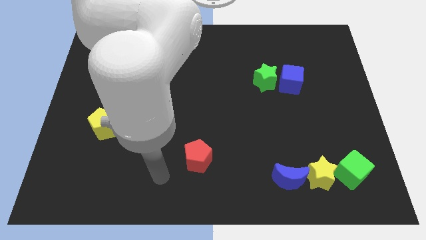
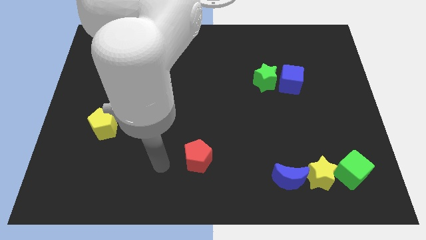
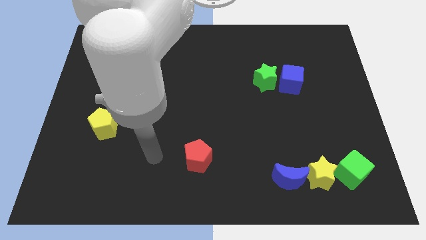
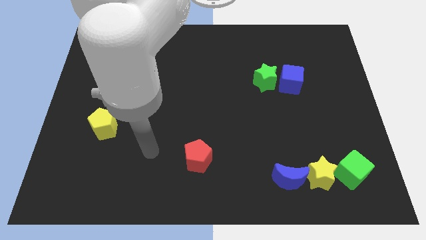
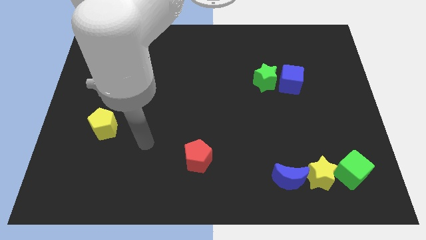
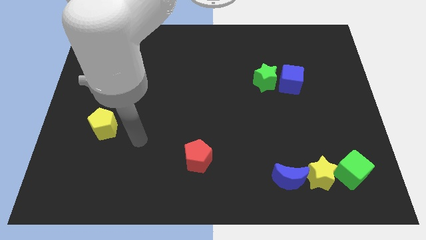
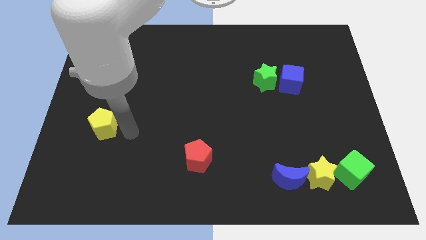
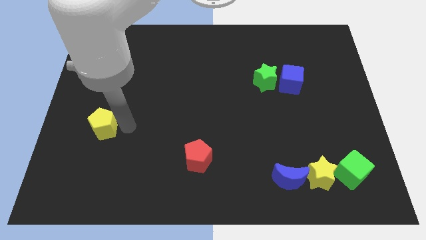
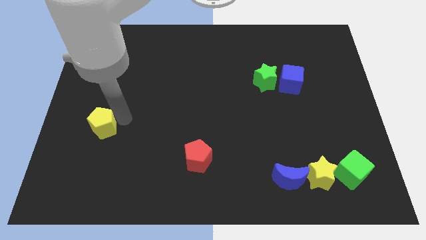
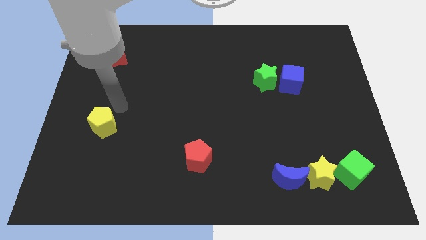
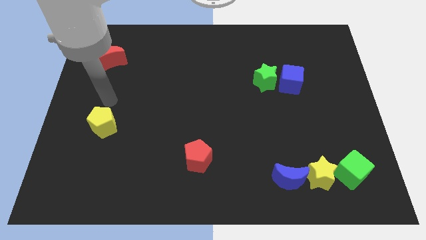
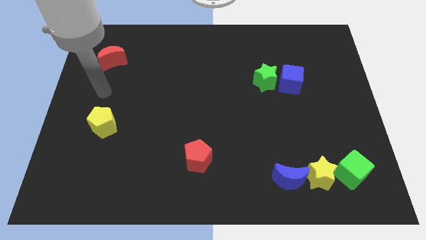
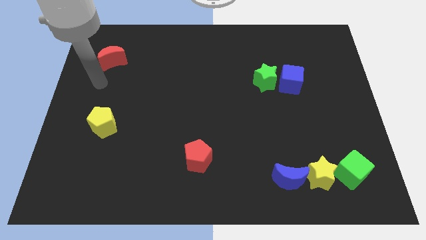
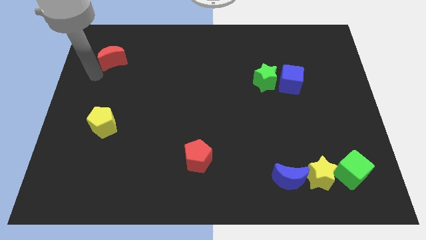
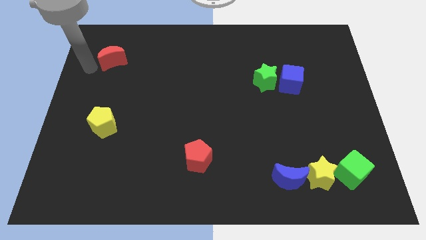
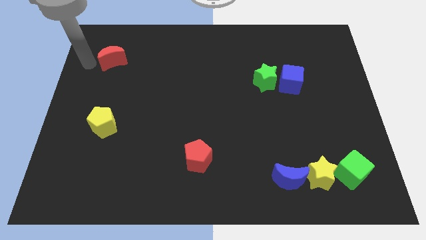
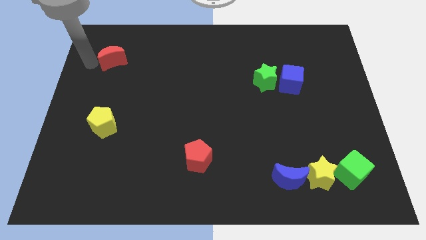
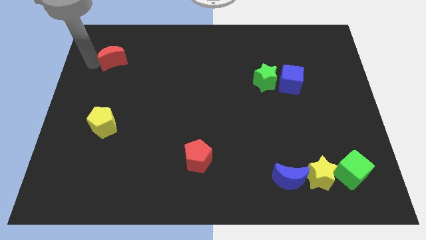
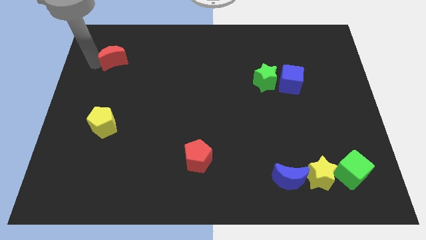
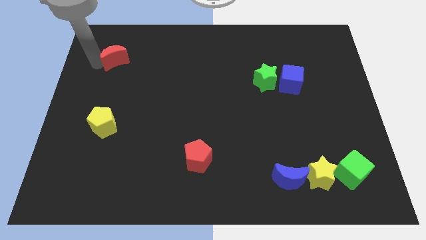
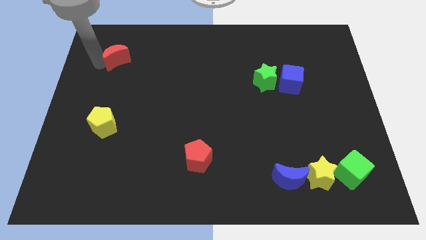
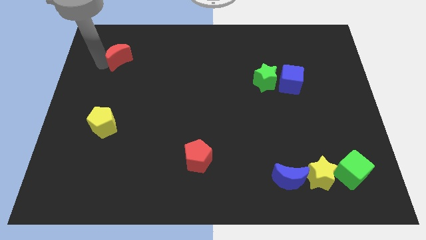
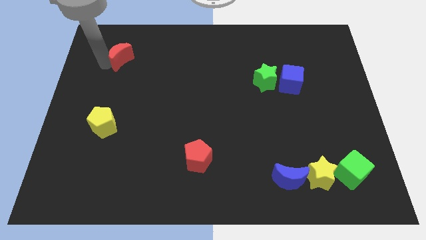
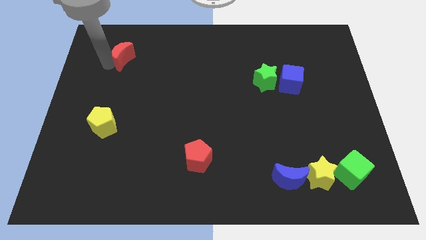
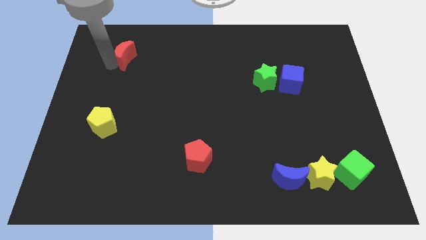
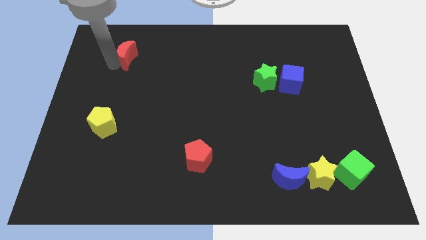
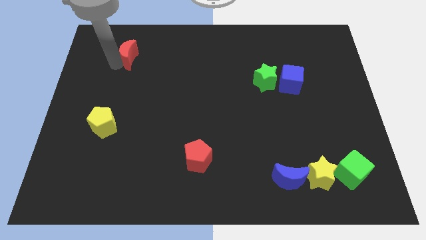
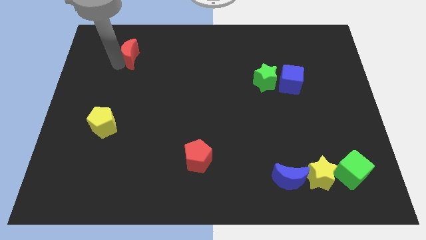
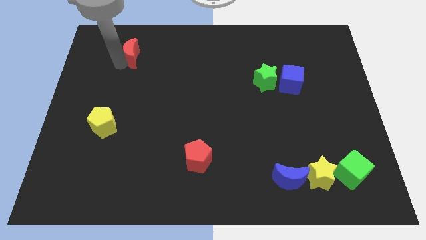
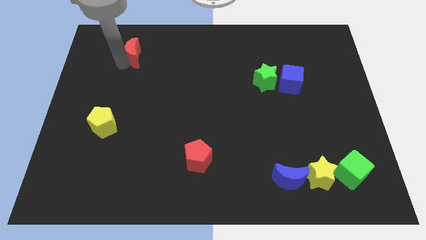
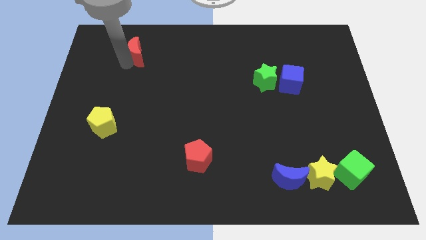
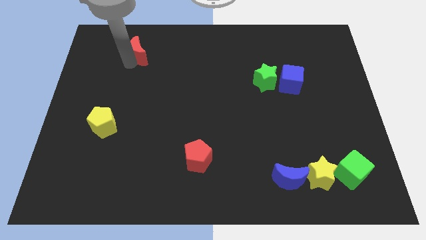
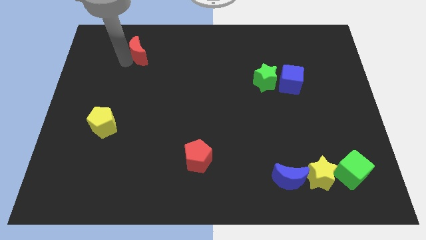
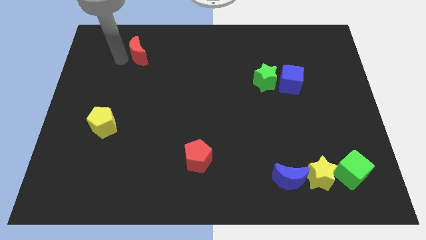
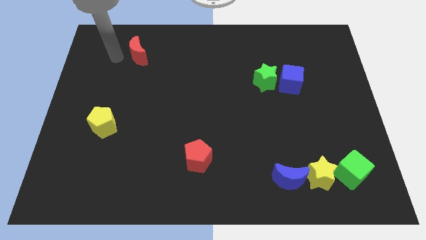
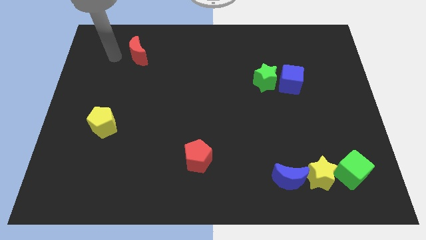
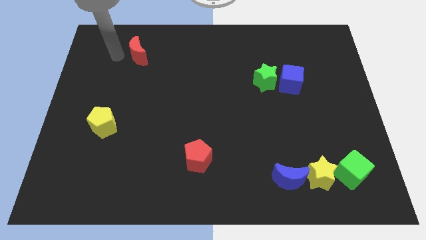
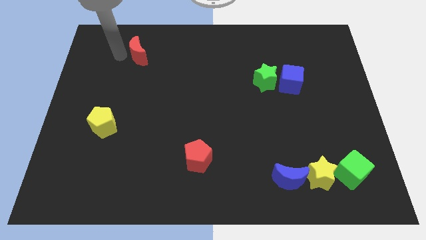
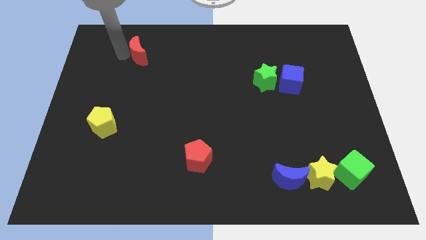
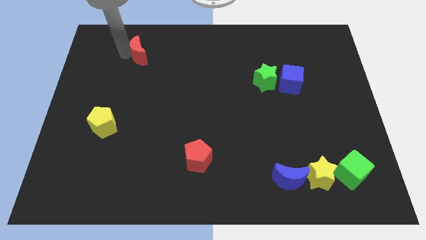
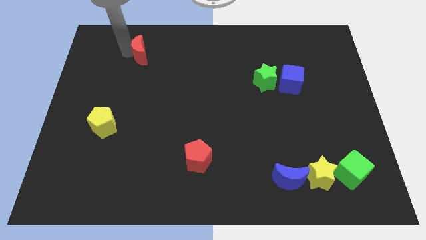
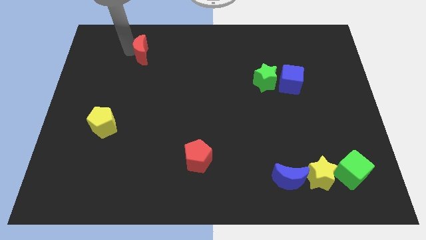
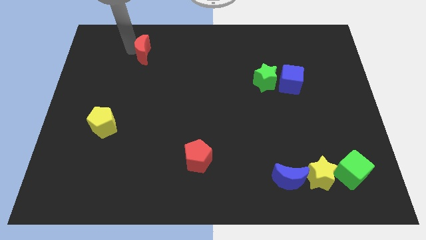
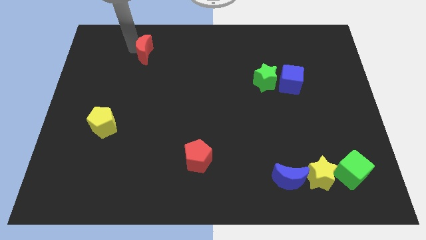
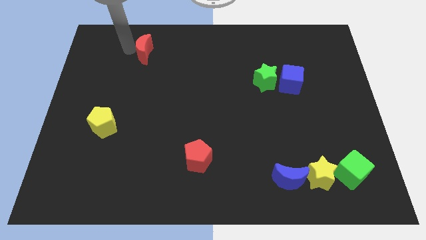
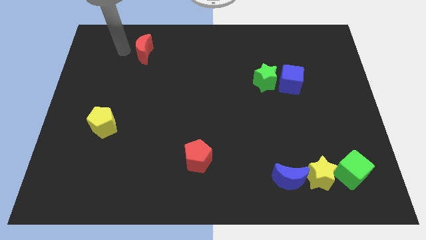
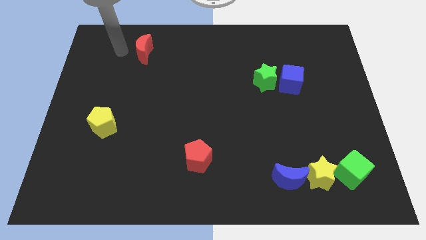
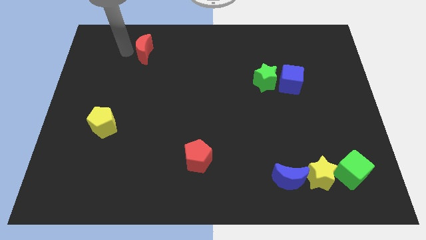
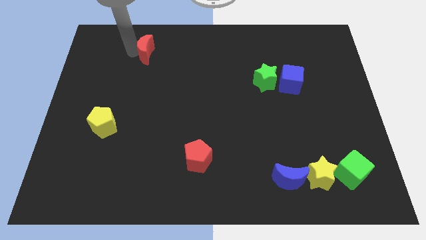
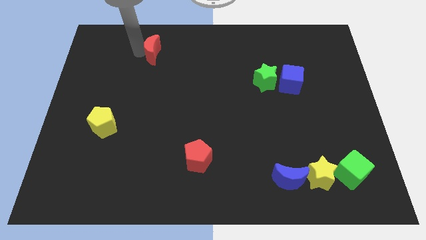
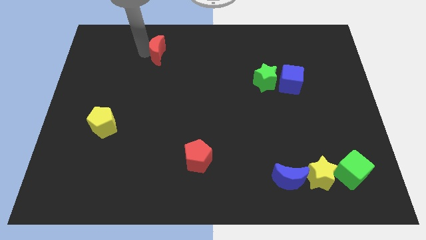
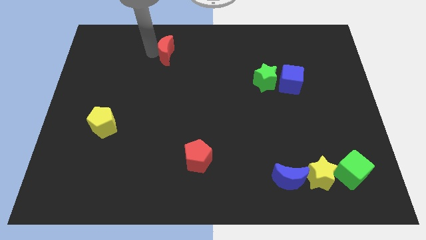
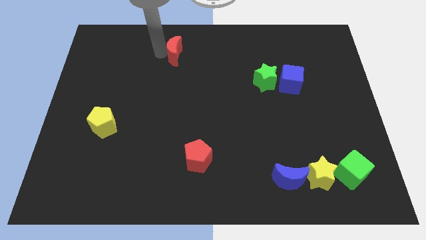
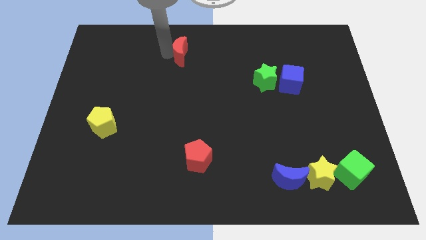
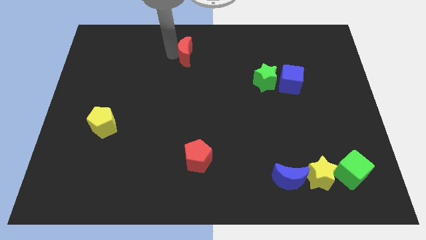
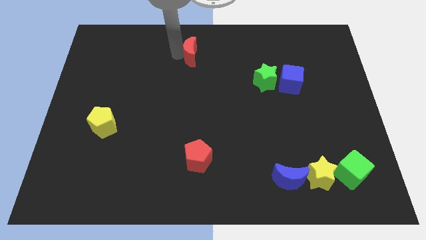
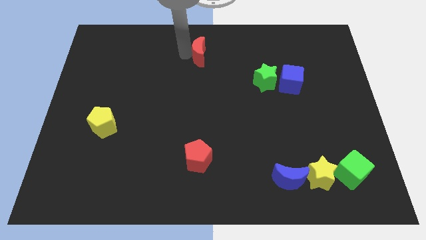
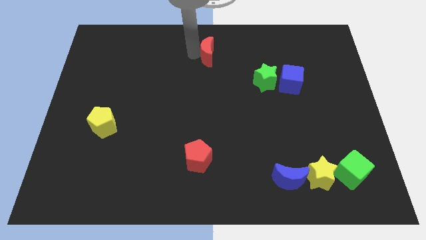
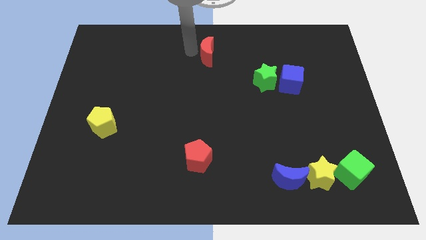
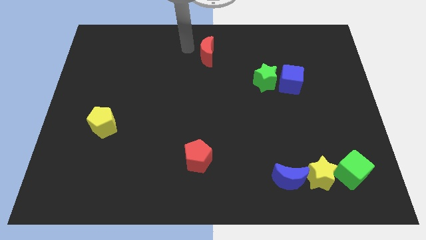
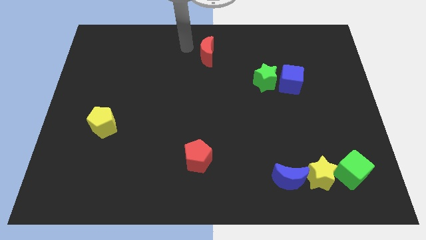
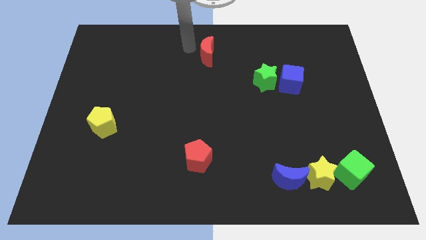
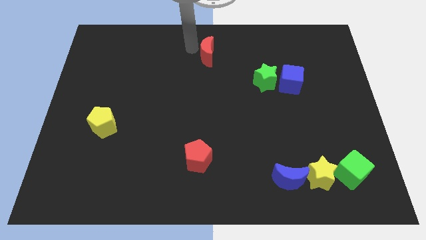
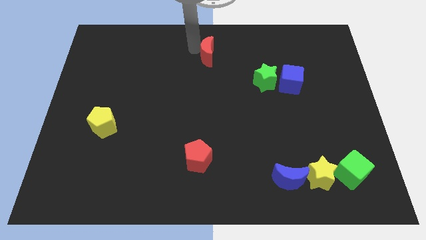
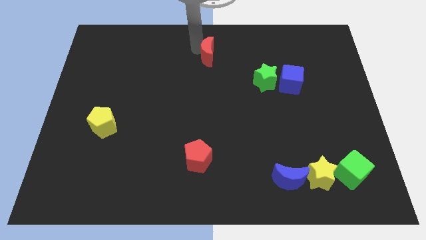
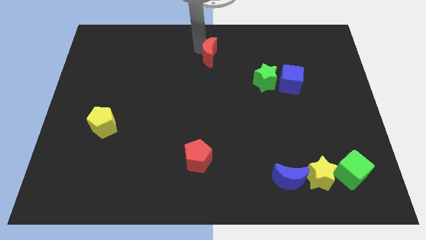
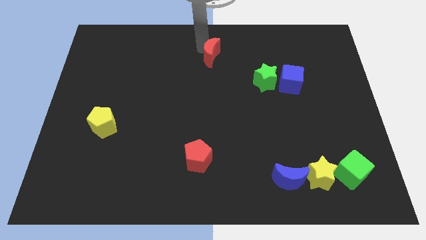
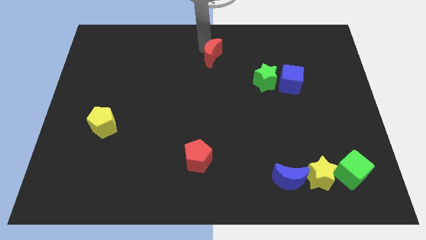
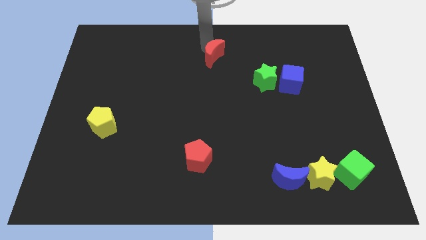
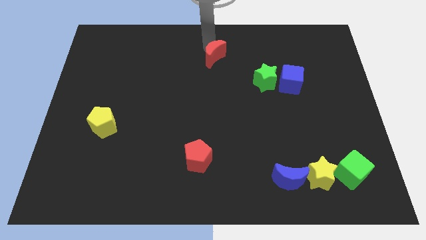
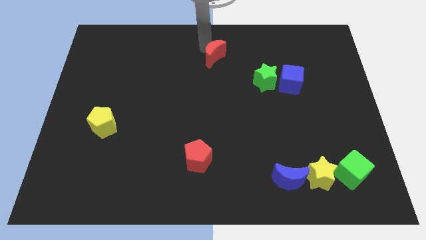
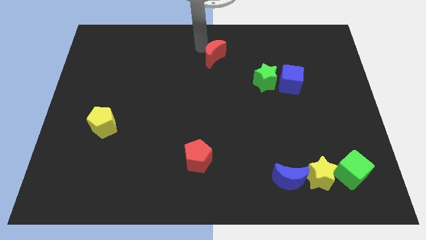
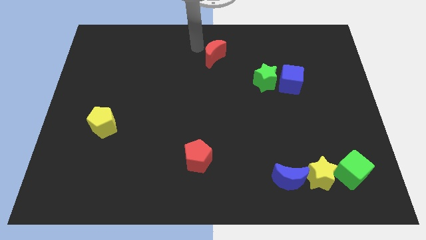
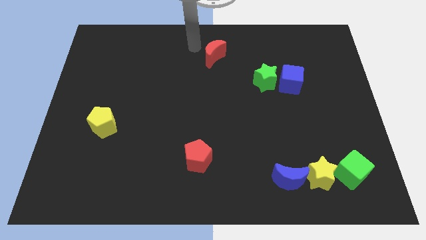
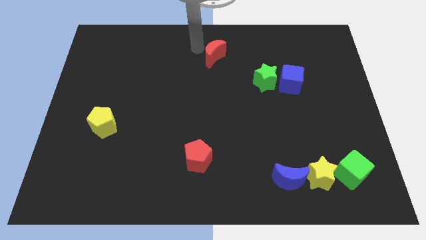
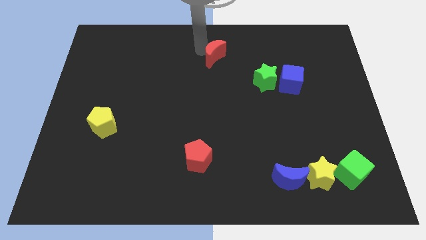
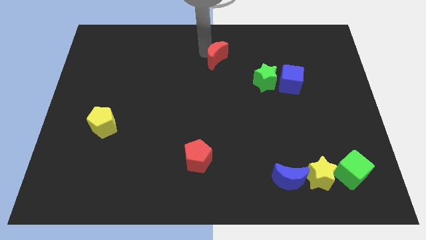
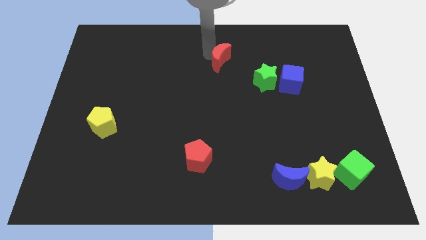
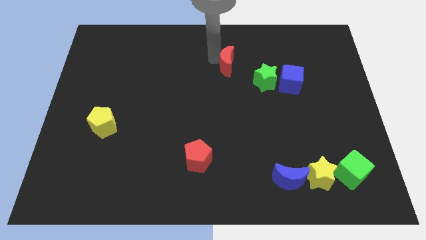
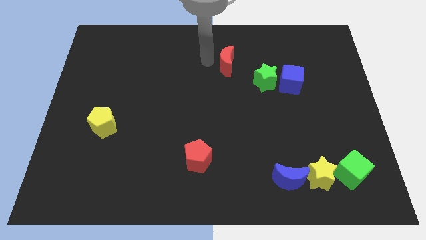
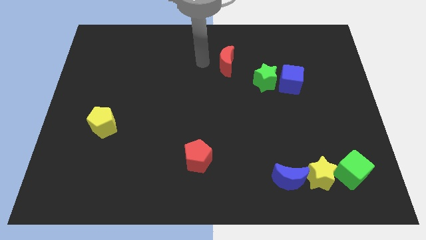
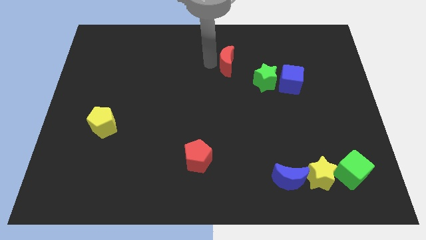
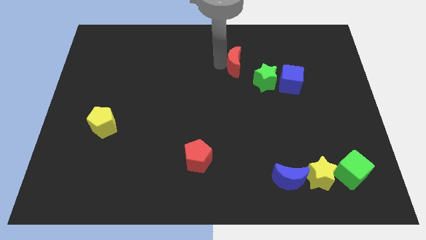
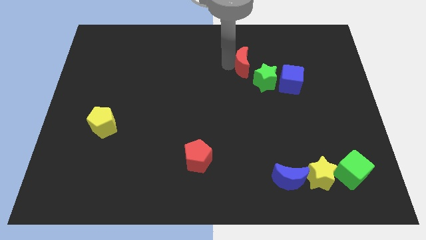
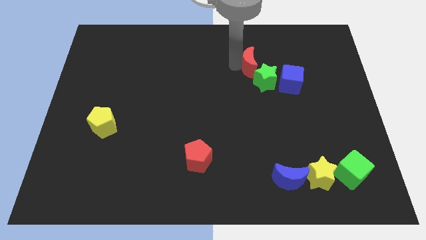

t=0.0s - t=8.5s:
slide the red moon to the top left side of the blue cube
